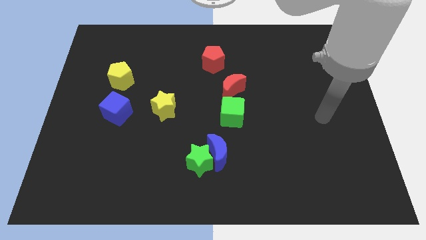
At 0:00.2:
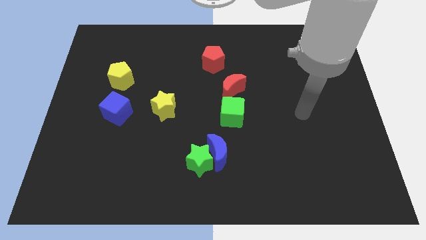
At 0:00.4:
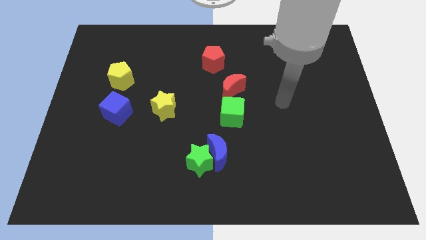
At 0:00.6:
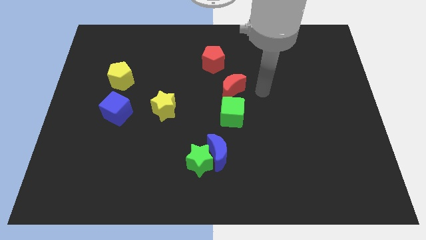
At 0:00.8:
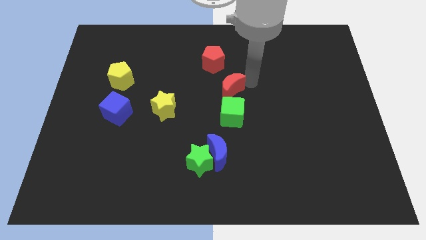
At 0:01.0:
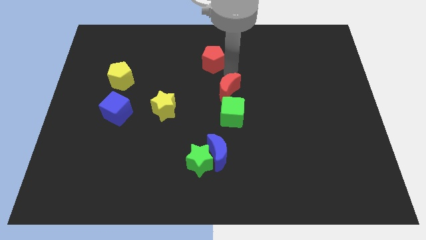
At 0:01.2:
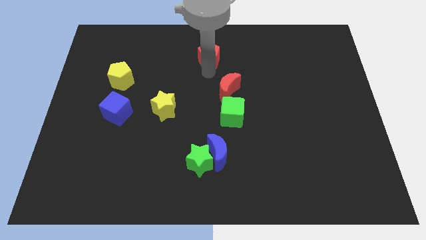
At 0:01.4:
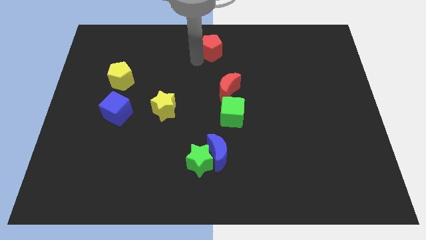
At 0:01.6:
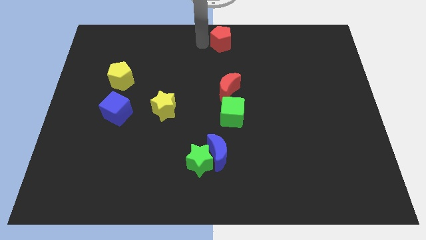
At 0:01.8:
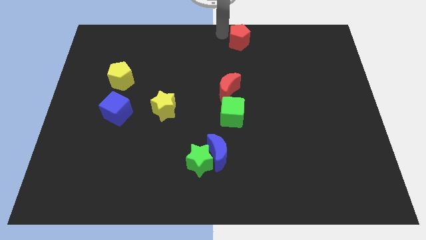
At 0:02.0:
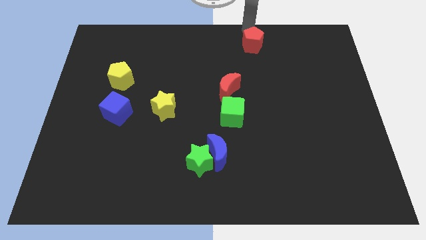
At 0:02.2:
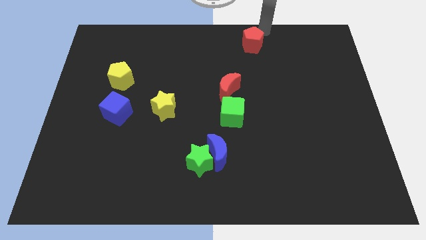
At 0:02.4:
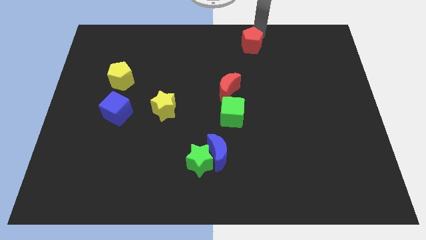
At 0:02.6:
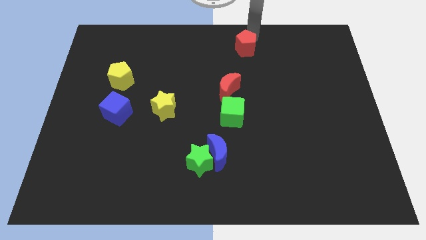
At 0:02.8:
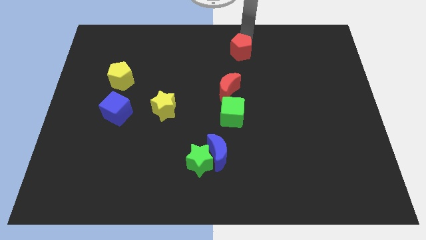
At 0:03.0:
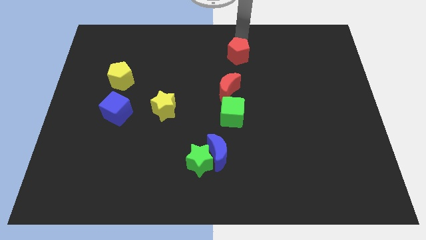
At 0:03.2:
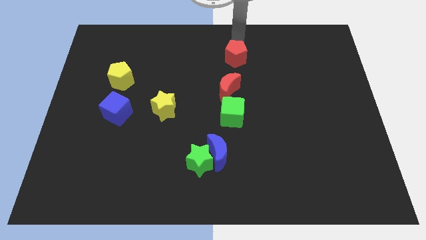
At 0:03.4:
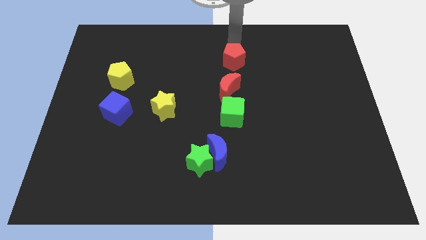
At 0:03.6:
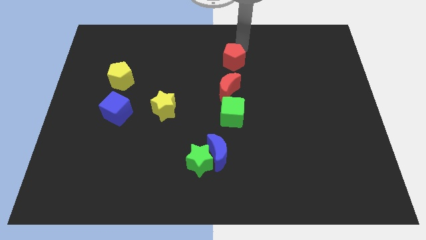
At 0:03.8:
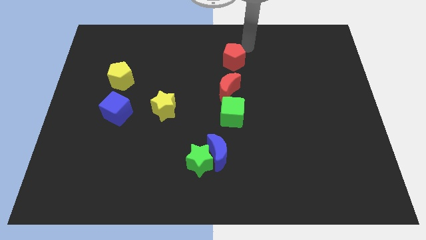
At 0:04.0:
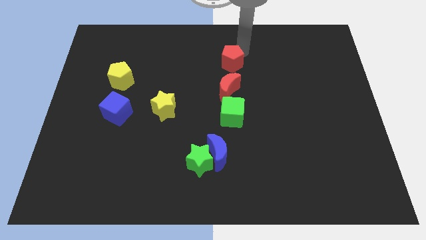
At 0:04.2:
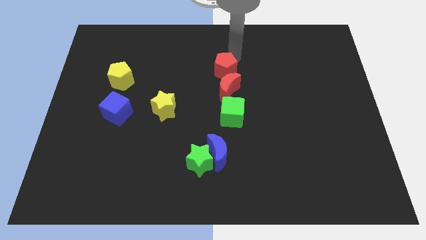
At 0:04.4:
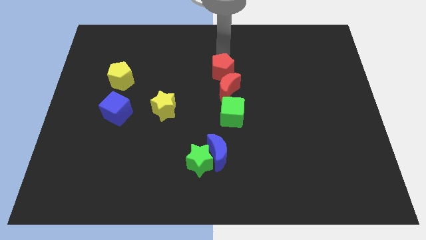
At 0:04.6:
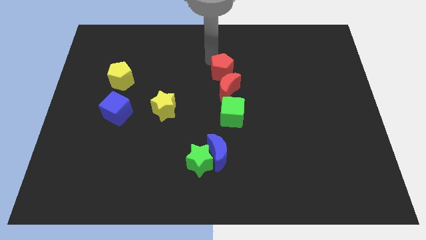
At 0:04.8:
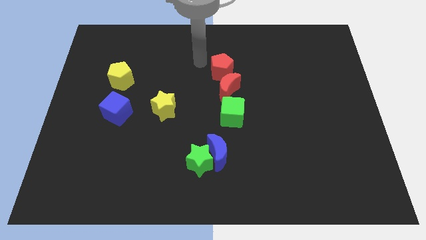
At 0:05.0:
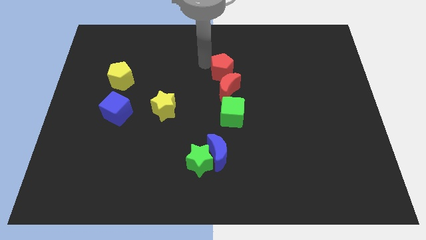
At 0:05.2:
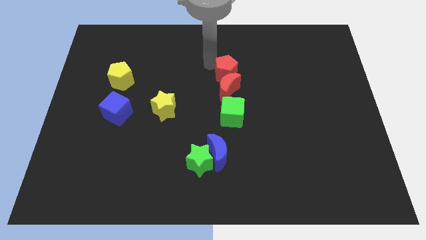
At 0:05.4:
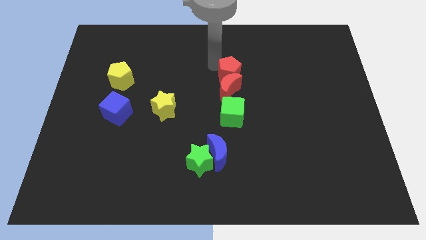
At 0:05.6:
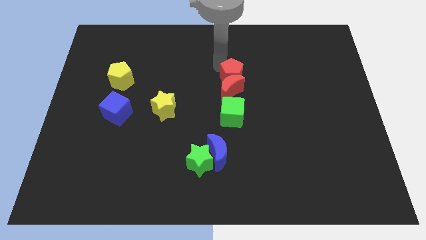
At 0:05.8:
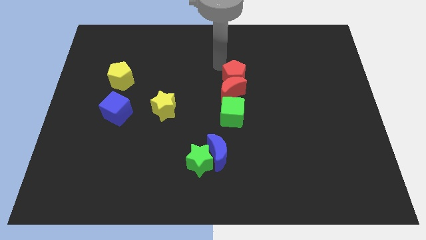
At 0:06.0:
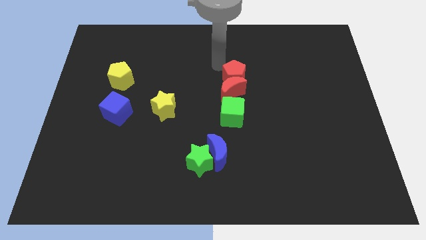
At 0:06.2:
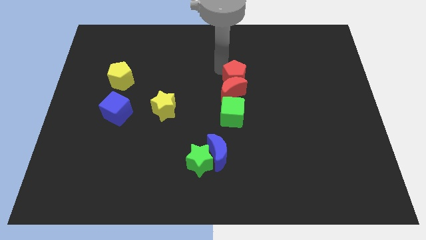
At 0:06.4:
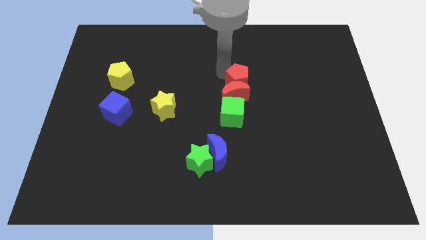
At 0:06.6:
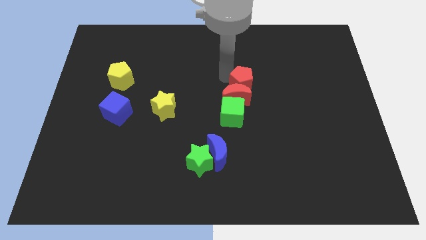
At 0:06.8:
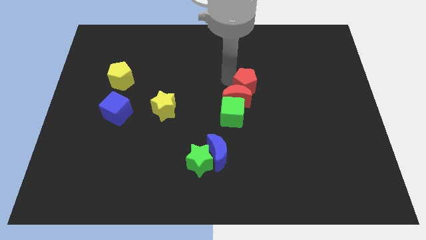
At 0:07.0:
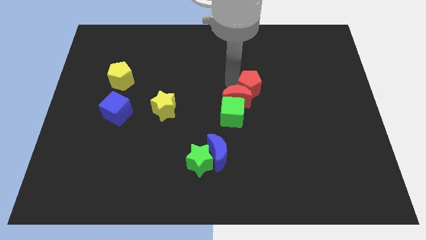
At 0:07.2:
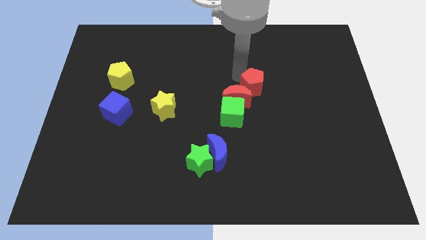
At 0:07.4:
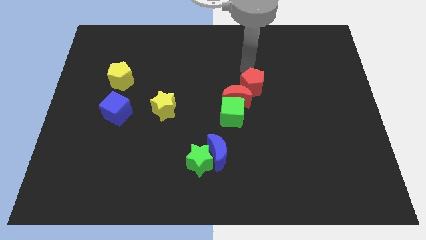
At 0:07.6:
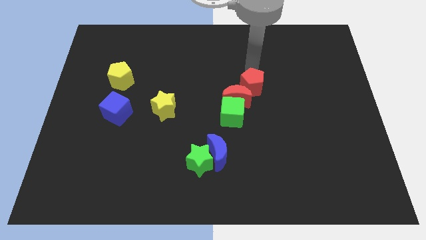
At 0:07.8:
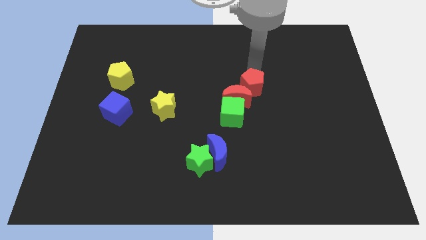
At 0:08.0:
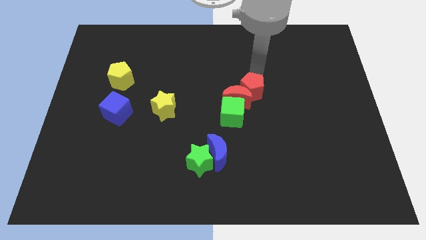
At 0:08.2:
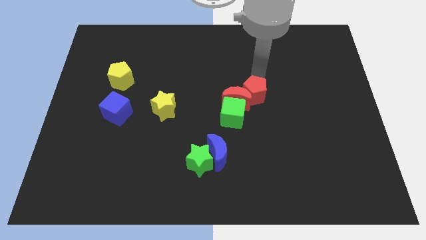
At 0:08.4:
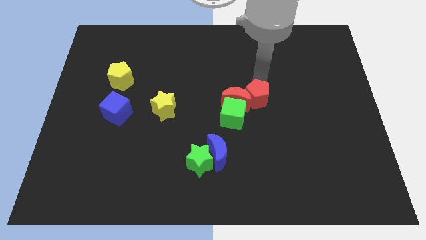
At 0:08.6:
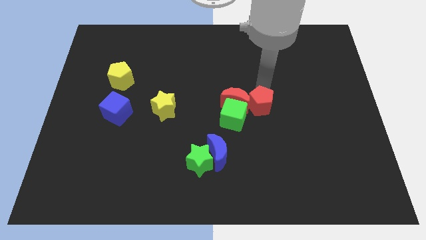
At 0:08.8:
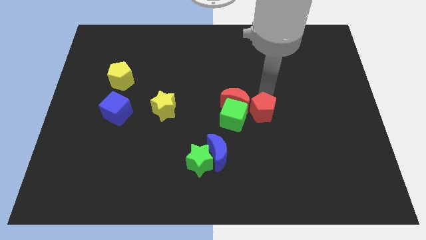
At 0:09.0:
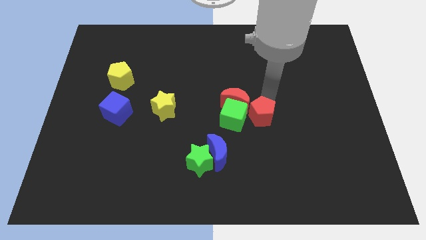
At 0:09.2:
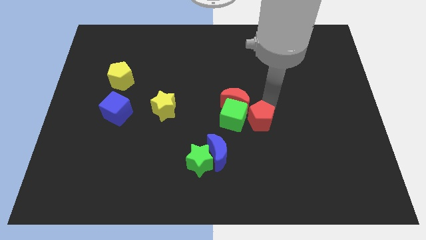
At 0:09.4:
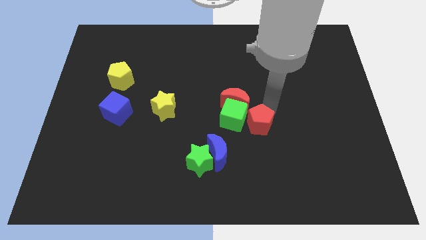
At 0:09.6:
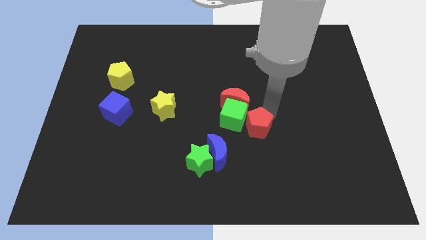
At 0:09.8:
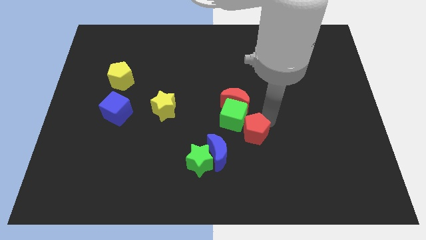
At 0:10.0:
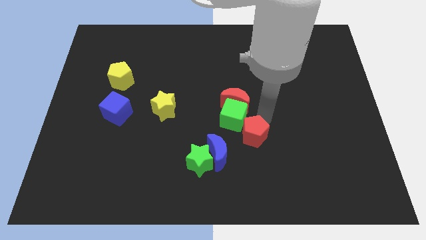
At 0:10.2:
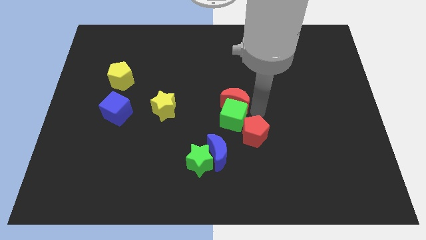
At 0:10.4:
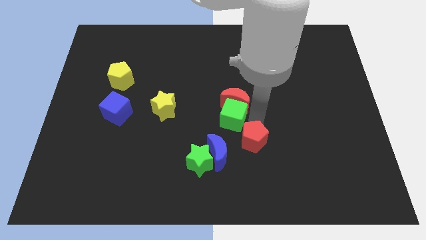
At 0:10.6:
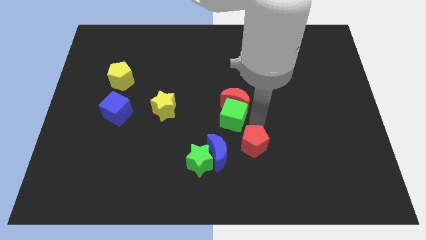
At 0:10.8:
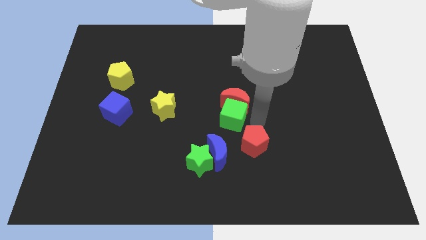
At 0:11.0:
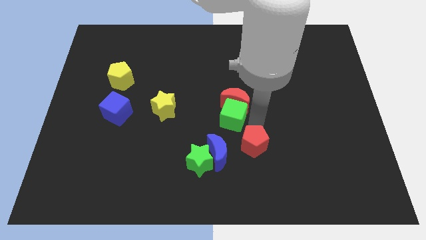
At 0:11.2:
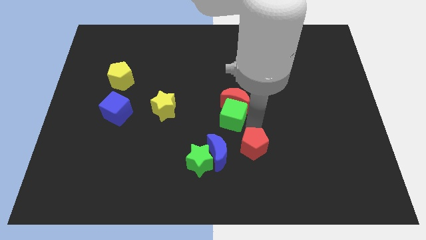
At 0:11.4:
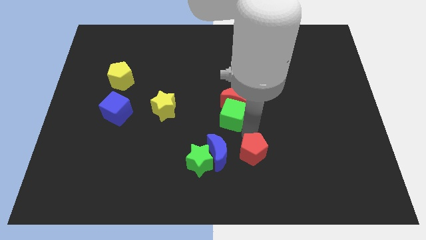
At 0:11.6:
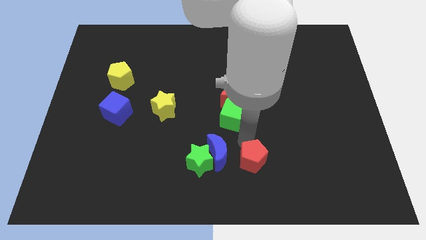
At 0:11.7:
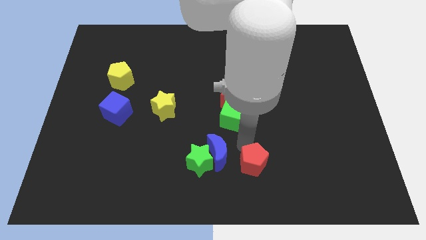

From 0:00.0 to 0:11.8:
slide the red pentagon to the bottom side

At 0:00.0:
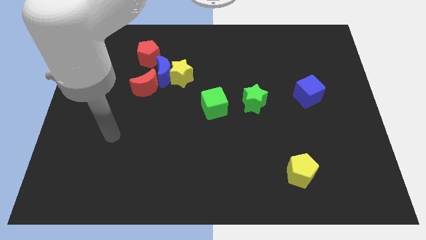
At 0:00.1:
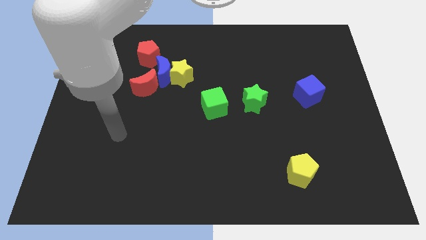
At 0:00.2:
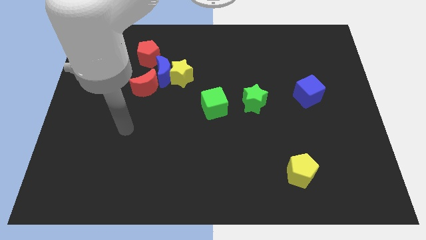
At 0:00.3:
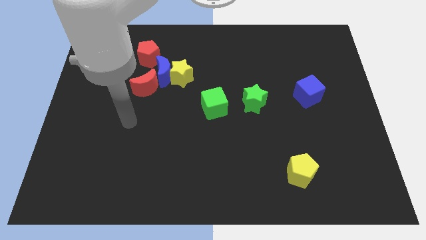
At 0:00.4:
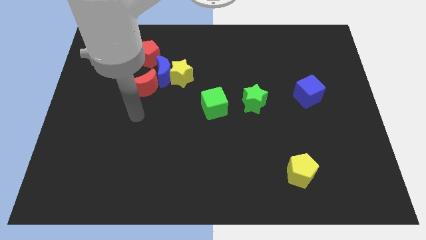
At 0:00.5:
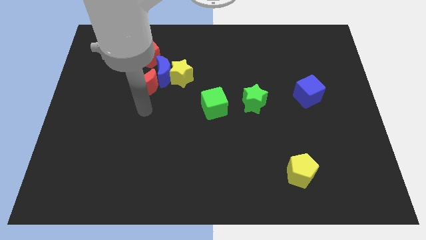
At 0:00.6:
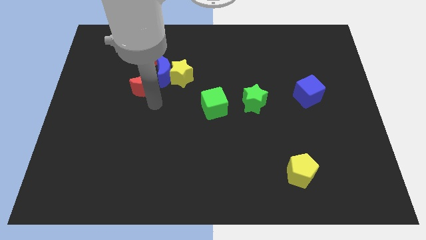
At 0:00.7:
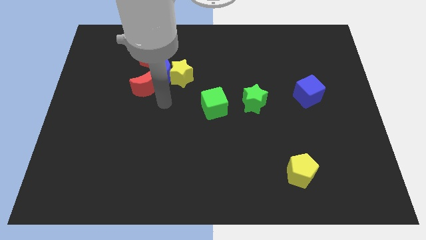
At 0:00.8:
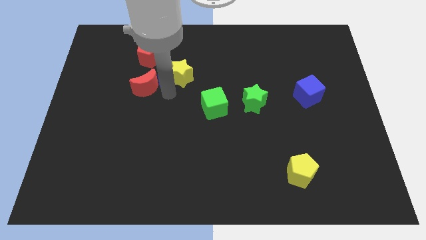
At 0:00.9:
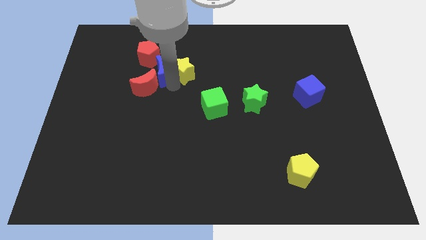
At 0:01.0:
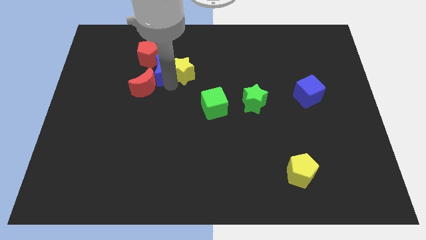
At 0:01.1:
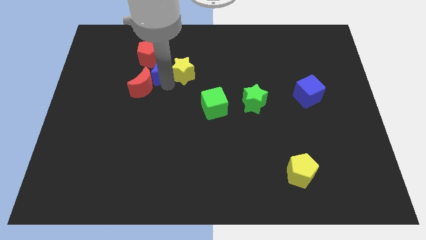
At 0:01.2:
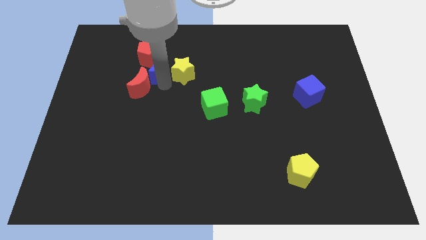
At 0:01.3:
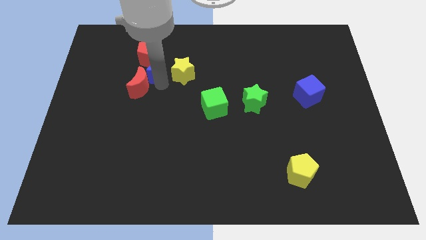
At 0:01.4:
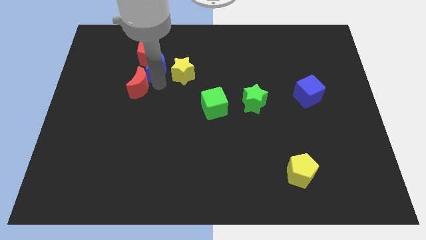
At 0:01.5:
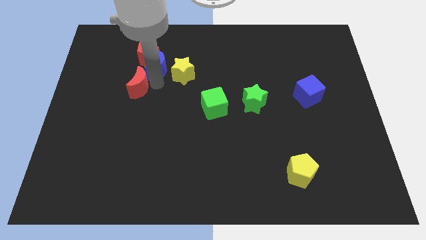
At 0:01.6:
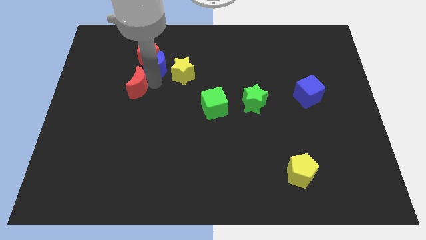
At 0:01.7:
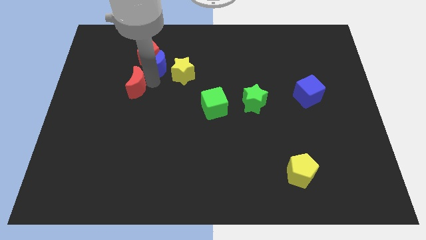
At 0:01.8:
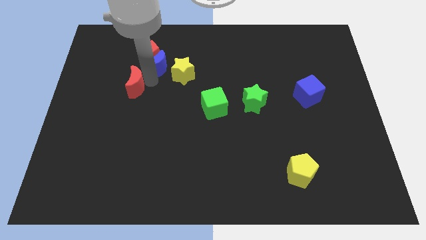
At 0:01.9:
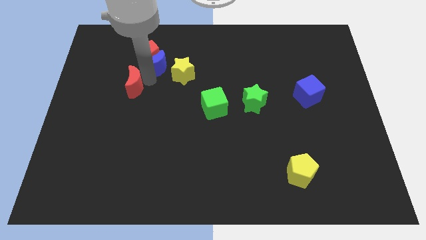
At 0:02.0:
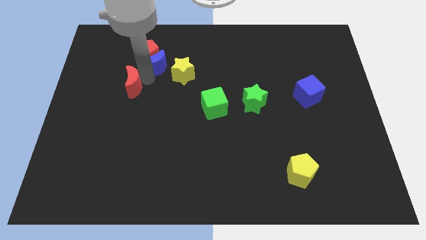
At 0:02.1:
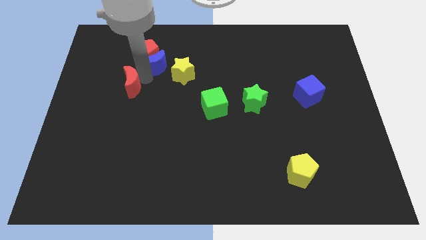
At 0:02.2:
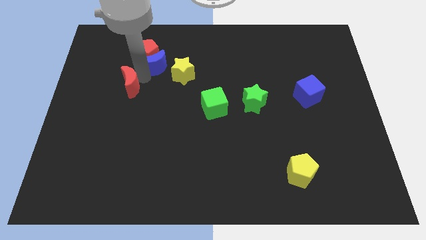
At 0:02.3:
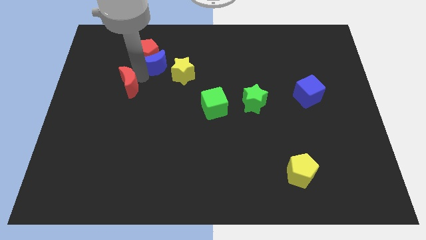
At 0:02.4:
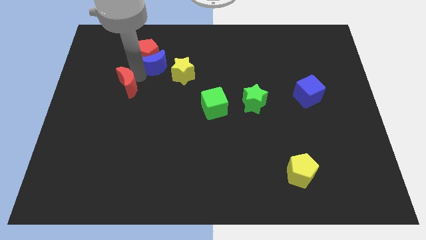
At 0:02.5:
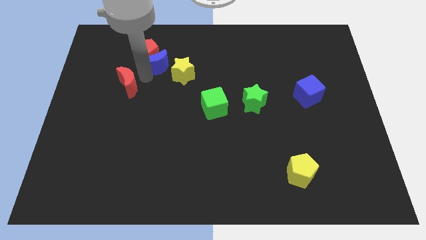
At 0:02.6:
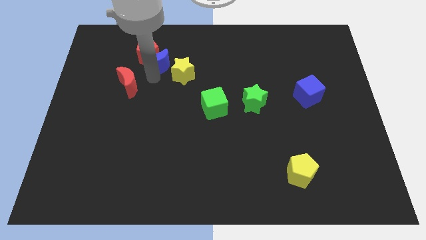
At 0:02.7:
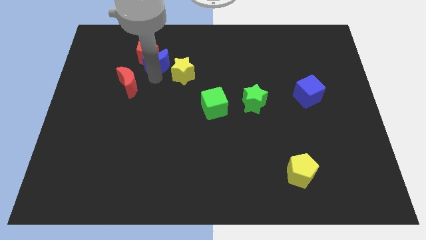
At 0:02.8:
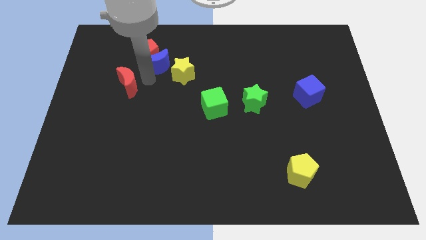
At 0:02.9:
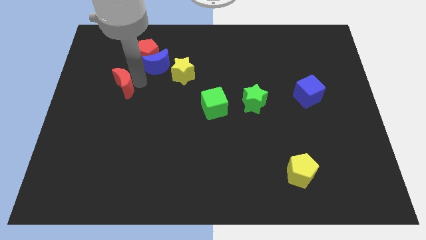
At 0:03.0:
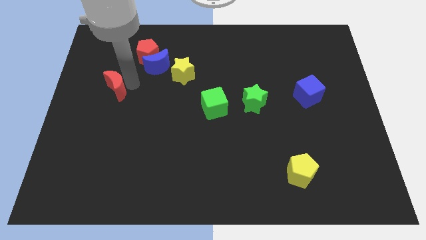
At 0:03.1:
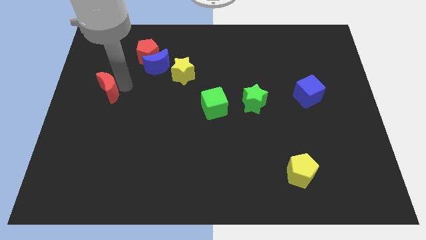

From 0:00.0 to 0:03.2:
move the red moon to the left side
